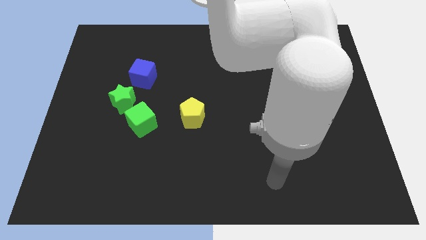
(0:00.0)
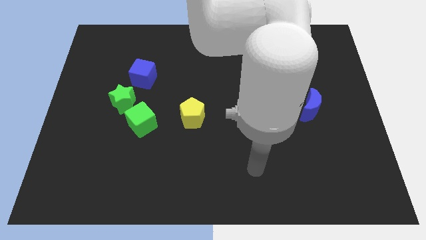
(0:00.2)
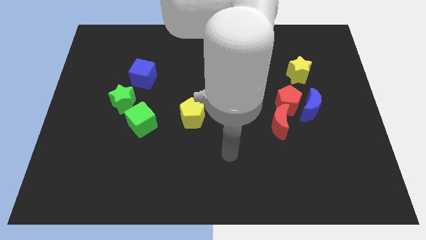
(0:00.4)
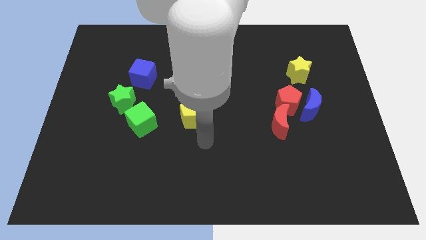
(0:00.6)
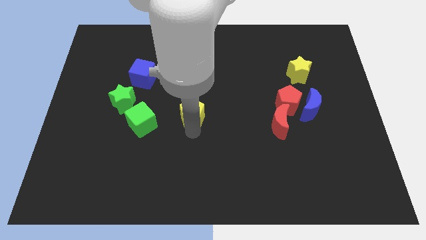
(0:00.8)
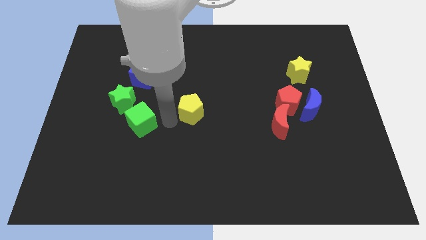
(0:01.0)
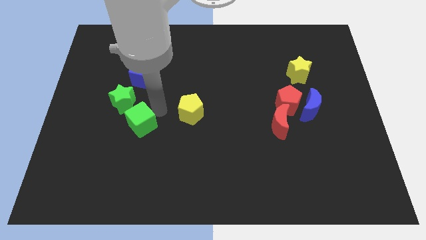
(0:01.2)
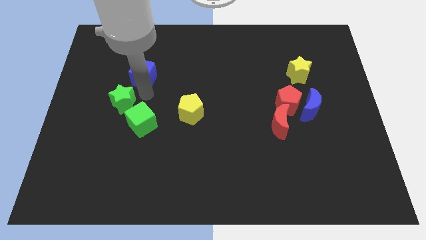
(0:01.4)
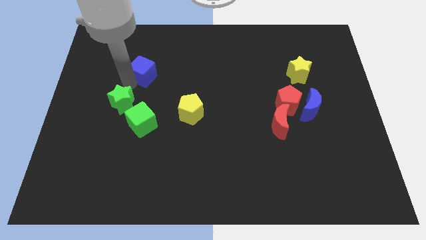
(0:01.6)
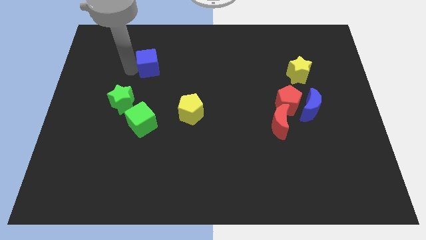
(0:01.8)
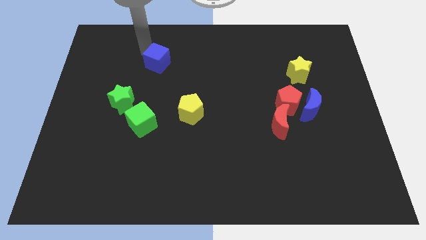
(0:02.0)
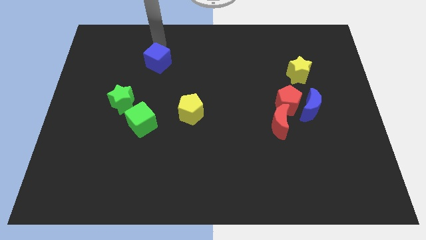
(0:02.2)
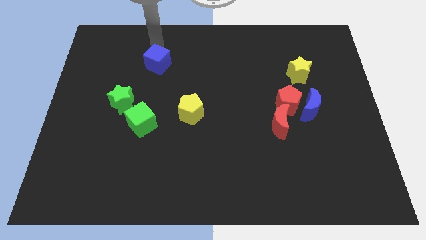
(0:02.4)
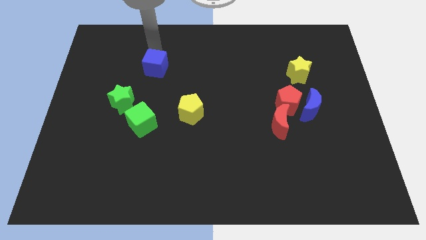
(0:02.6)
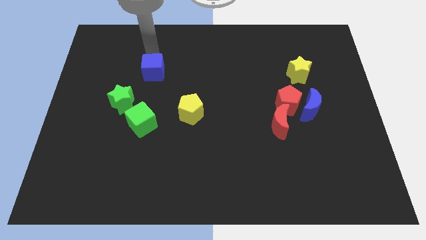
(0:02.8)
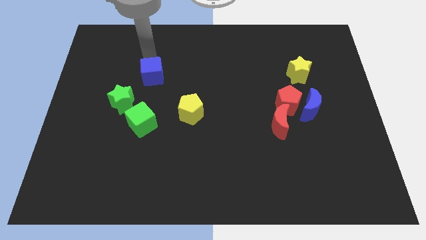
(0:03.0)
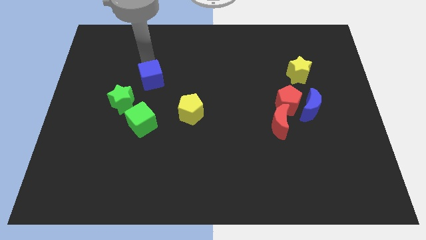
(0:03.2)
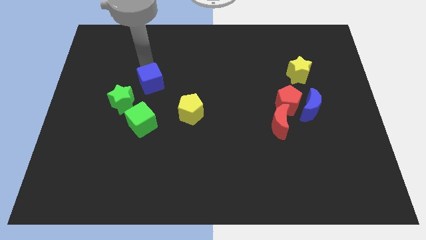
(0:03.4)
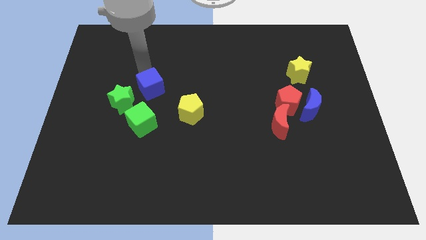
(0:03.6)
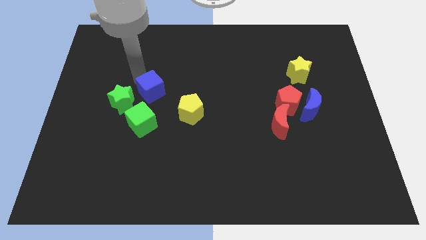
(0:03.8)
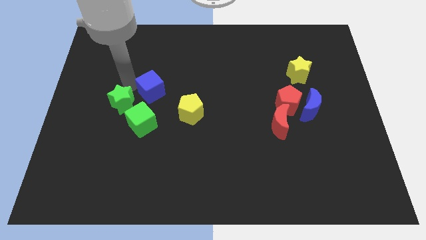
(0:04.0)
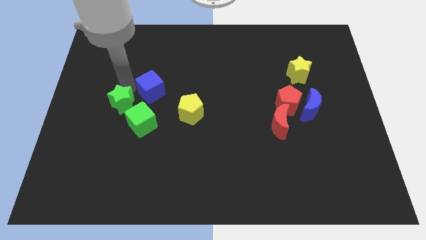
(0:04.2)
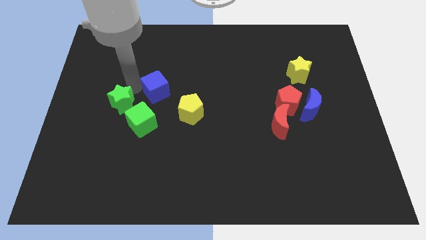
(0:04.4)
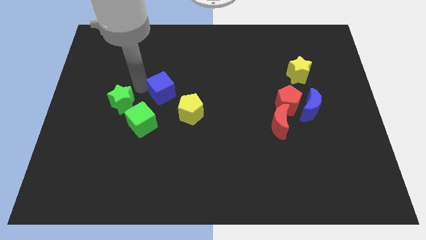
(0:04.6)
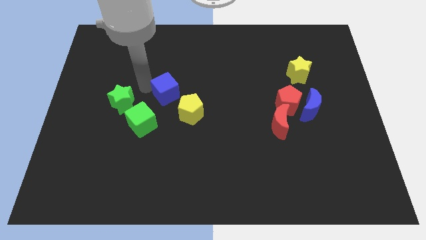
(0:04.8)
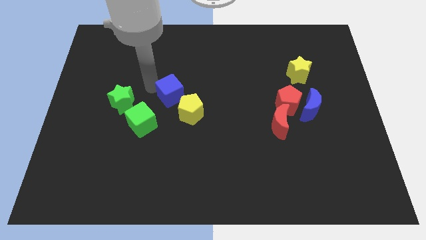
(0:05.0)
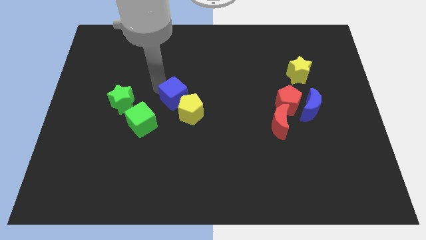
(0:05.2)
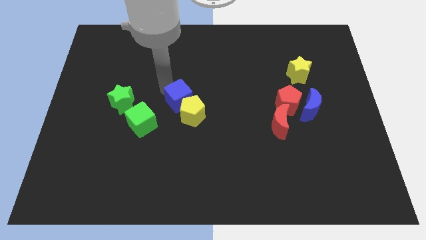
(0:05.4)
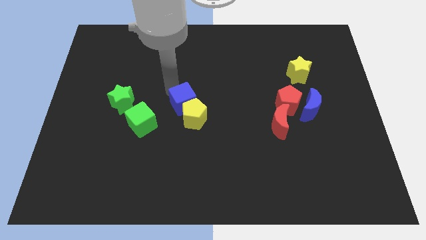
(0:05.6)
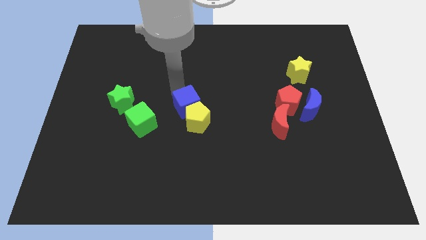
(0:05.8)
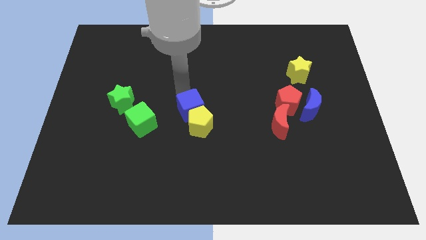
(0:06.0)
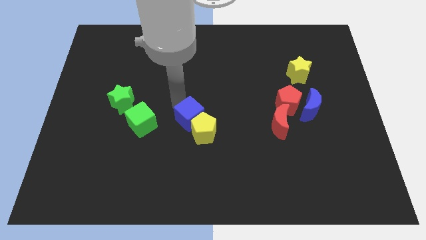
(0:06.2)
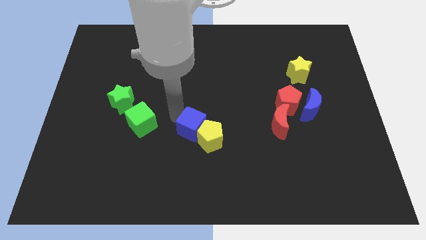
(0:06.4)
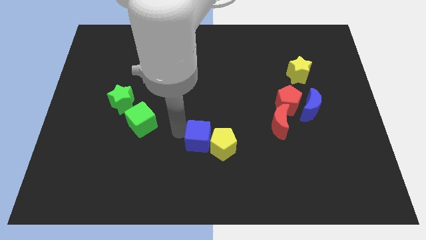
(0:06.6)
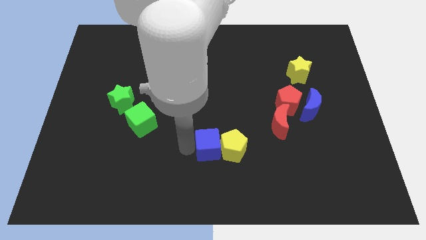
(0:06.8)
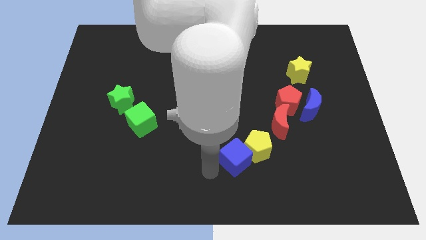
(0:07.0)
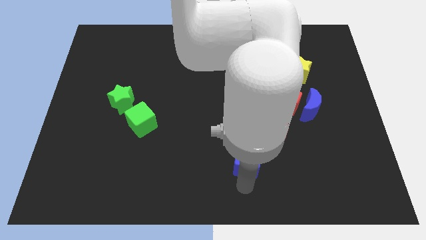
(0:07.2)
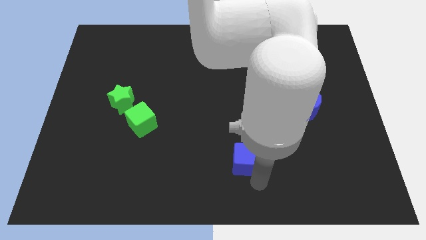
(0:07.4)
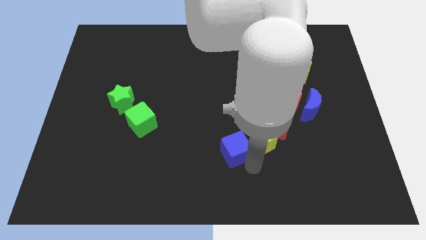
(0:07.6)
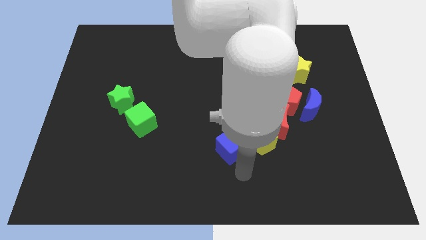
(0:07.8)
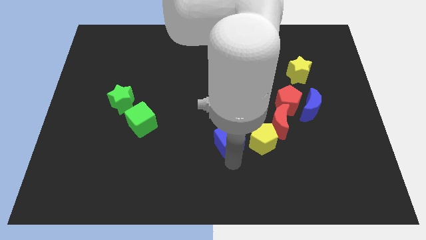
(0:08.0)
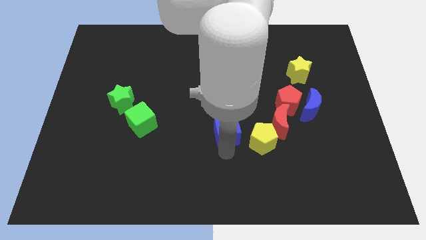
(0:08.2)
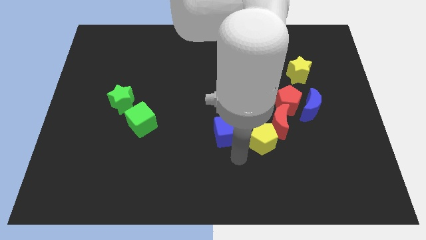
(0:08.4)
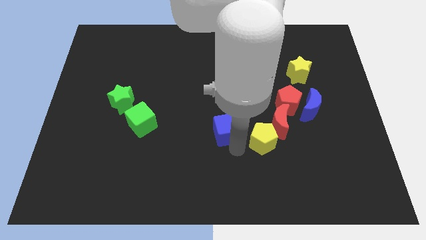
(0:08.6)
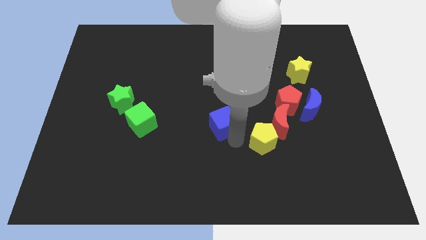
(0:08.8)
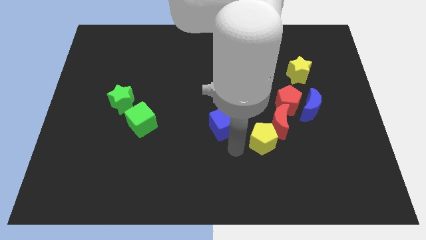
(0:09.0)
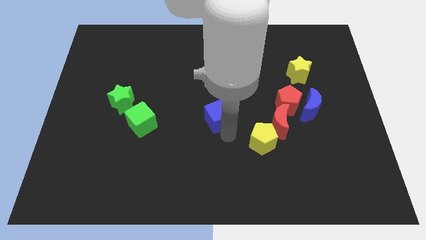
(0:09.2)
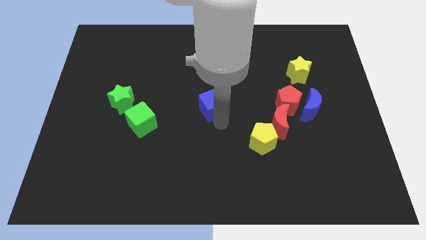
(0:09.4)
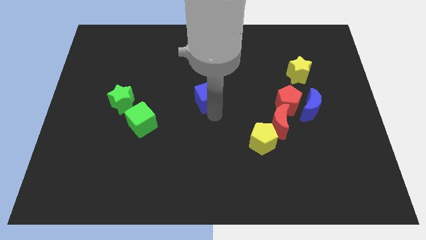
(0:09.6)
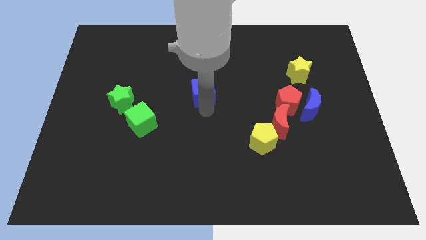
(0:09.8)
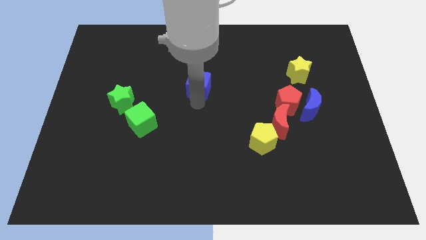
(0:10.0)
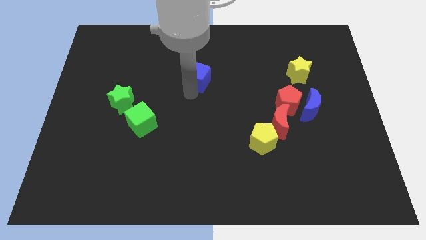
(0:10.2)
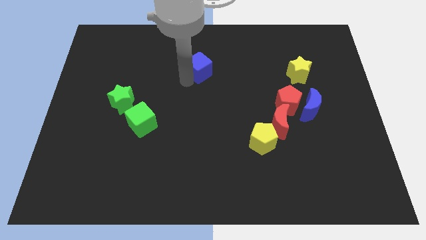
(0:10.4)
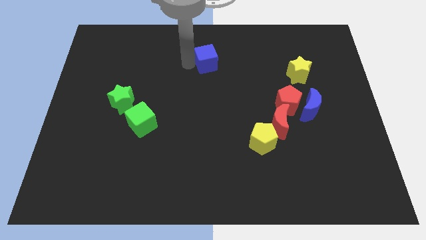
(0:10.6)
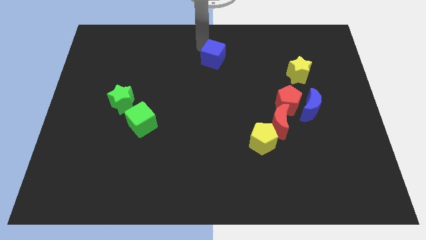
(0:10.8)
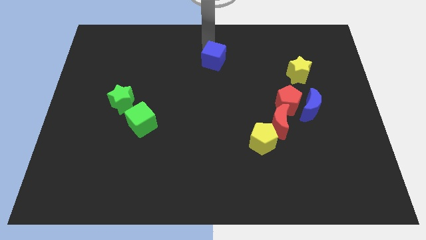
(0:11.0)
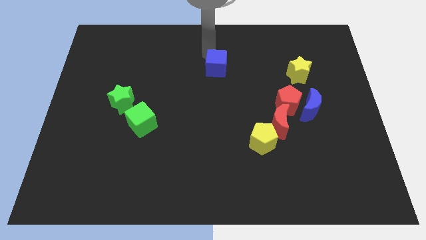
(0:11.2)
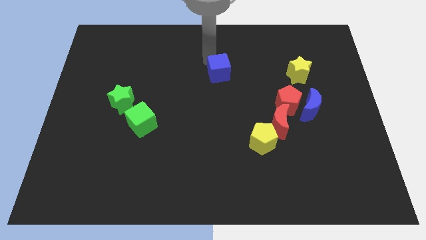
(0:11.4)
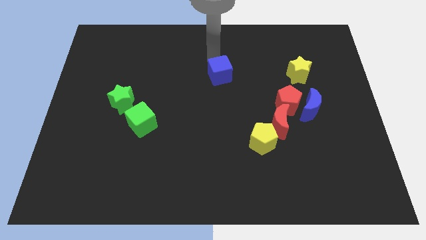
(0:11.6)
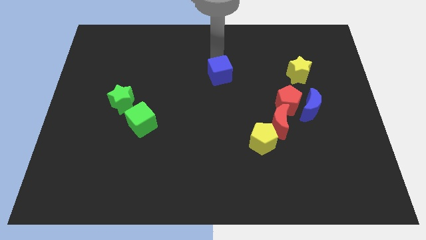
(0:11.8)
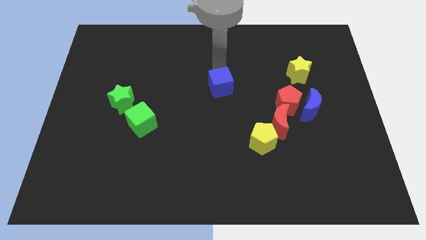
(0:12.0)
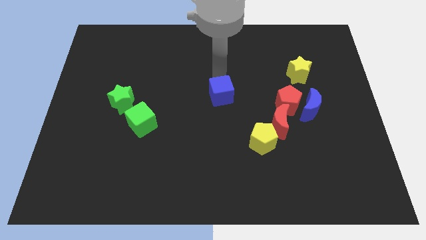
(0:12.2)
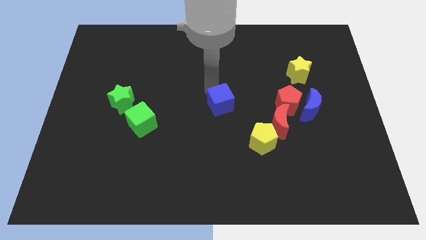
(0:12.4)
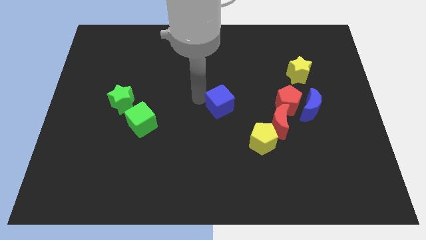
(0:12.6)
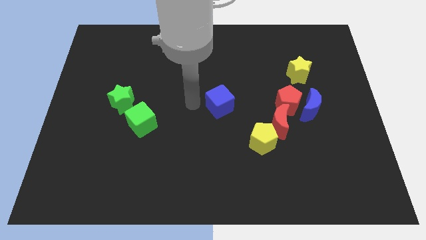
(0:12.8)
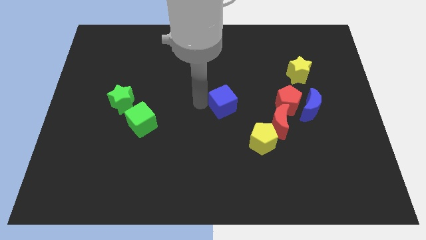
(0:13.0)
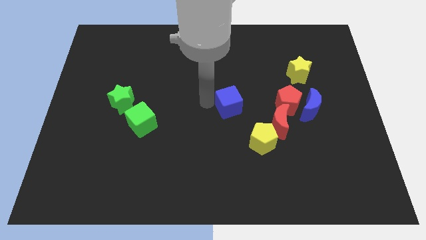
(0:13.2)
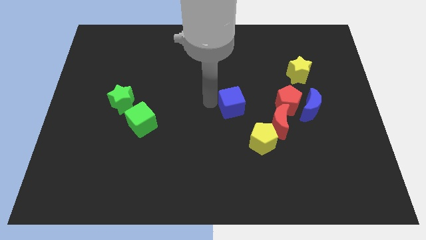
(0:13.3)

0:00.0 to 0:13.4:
slide the blue cube diagonally up and to the left of the red moon
